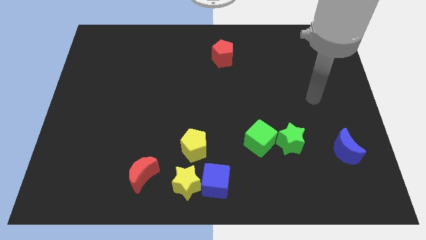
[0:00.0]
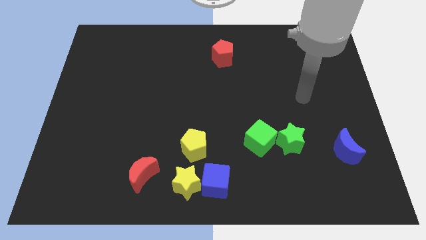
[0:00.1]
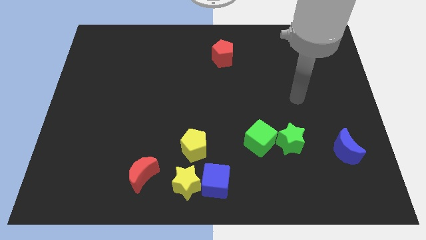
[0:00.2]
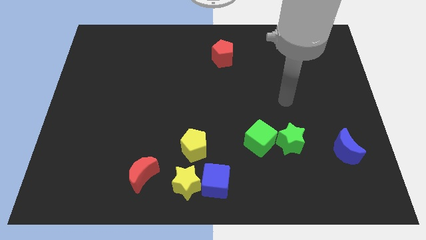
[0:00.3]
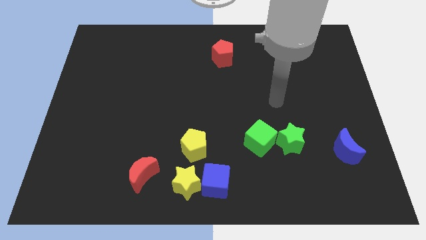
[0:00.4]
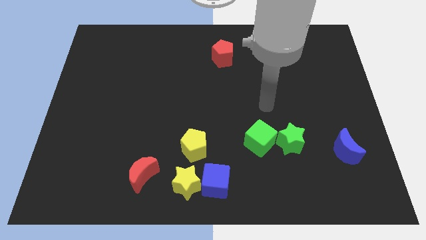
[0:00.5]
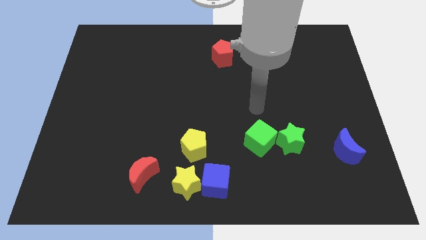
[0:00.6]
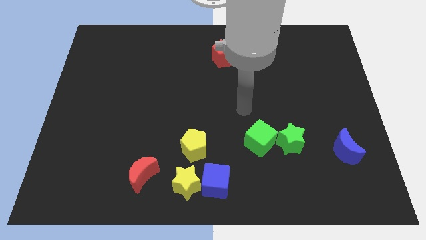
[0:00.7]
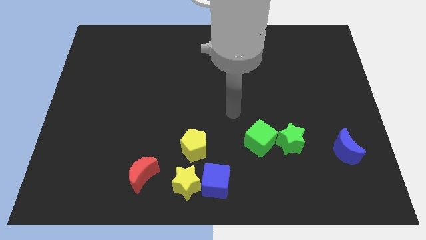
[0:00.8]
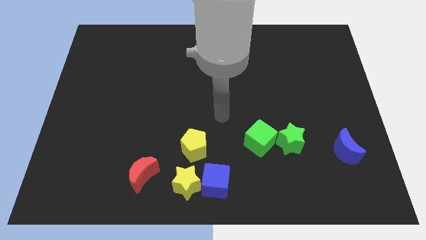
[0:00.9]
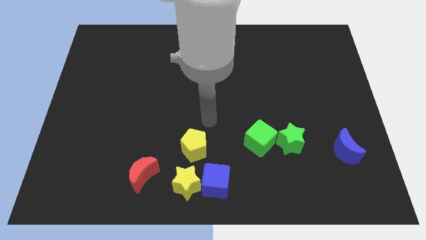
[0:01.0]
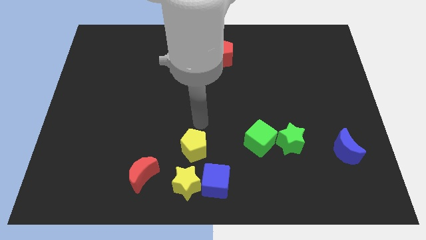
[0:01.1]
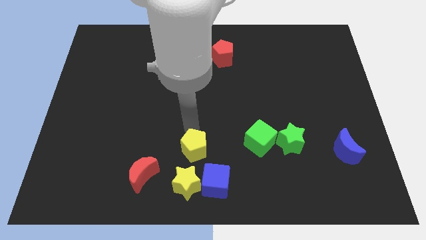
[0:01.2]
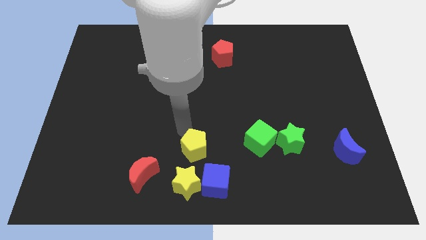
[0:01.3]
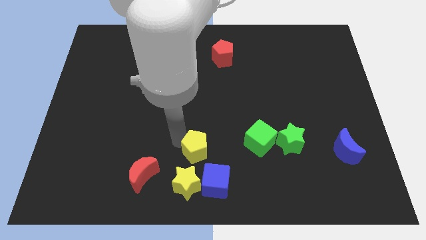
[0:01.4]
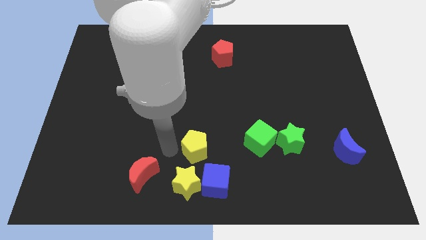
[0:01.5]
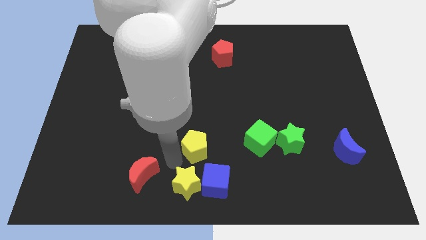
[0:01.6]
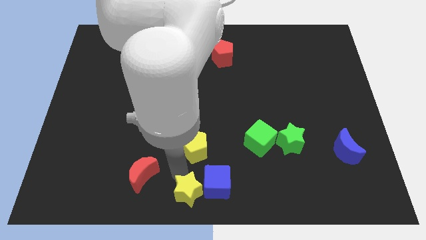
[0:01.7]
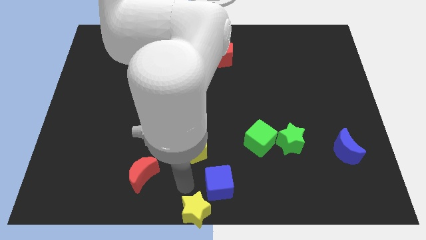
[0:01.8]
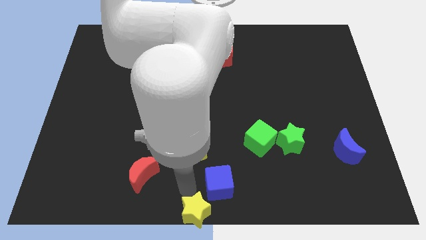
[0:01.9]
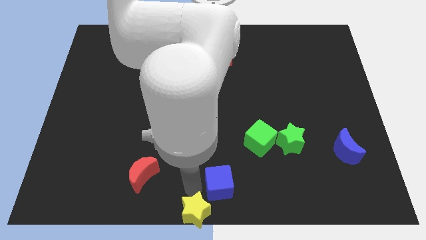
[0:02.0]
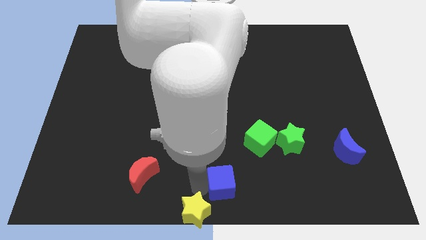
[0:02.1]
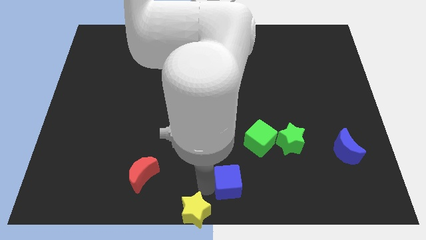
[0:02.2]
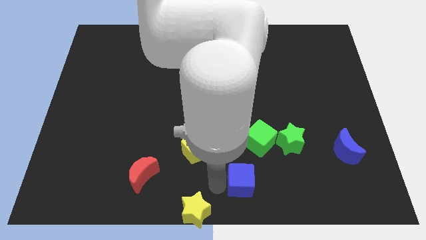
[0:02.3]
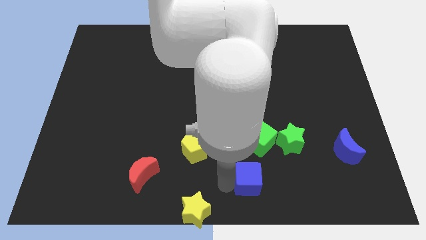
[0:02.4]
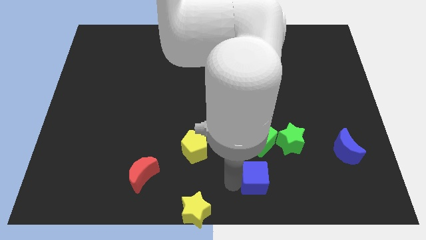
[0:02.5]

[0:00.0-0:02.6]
slide the blue cube somewhat right

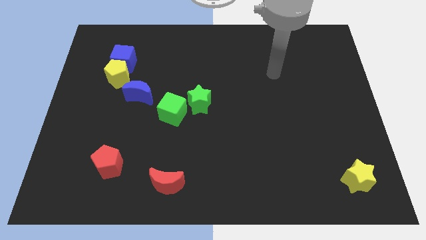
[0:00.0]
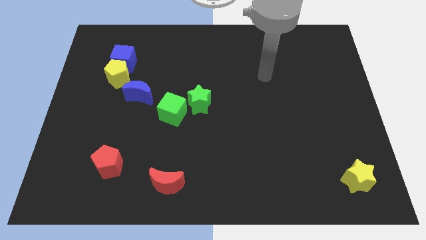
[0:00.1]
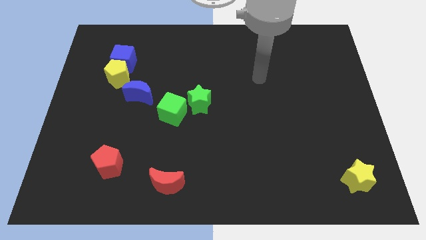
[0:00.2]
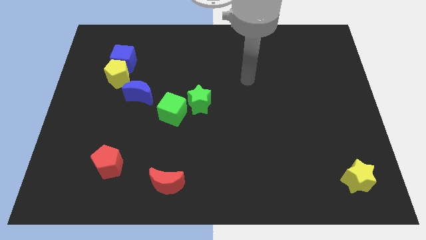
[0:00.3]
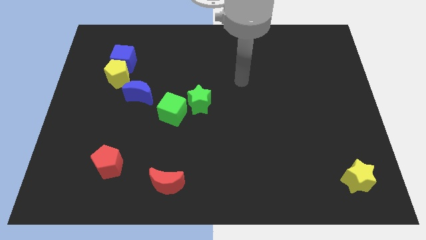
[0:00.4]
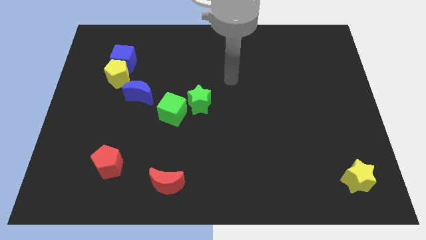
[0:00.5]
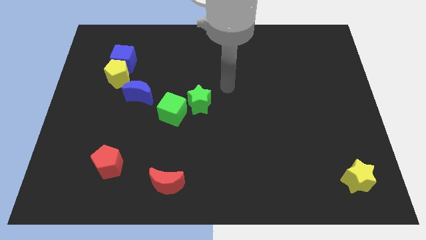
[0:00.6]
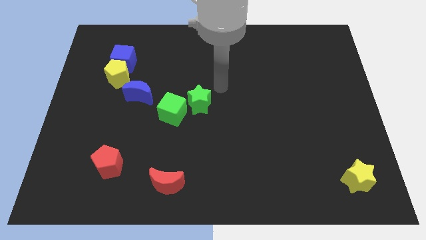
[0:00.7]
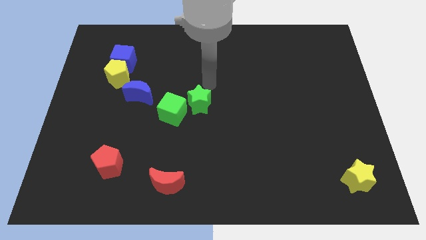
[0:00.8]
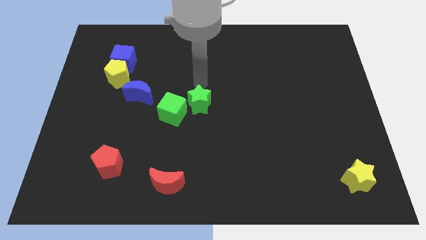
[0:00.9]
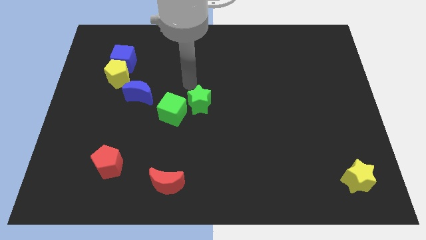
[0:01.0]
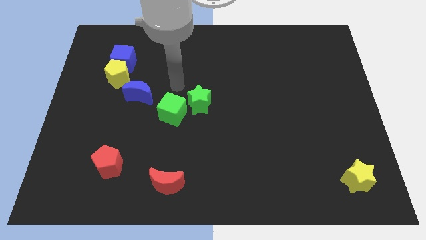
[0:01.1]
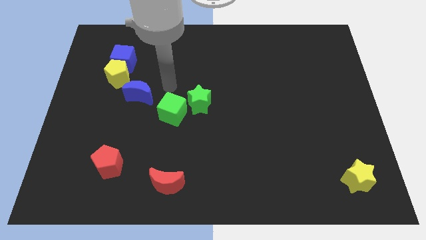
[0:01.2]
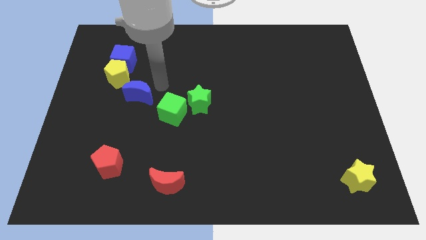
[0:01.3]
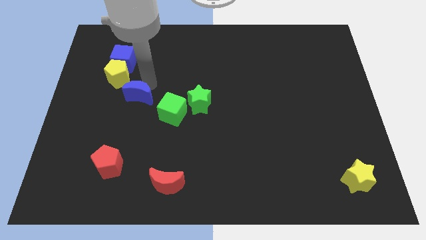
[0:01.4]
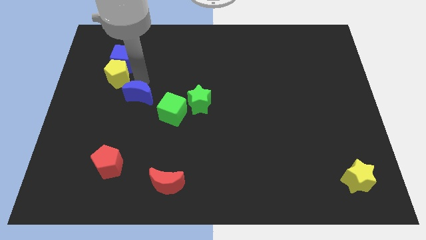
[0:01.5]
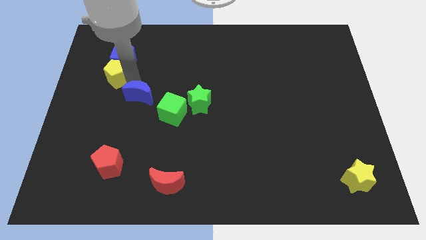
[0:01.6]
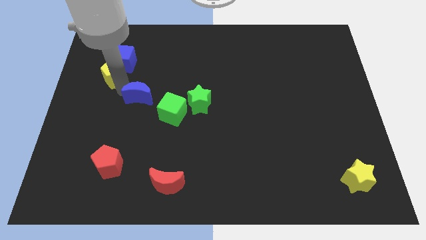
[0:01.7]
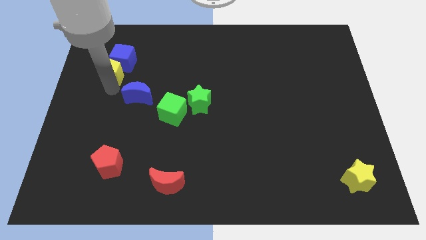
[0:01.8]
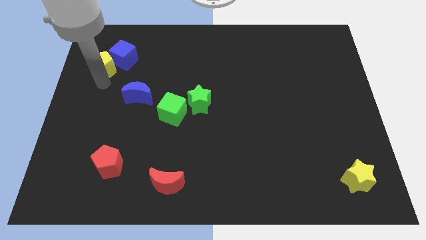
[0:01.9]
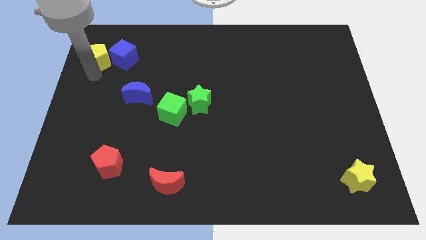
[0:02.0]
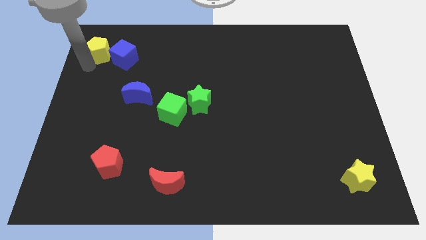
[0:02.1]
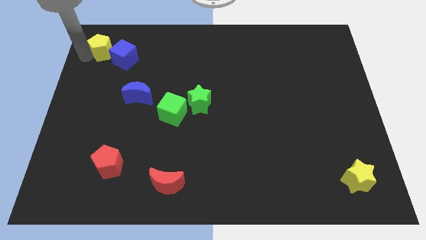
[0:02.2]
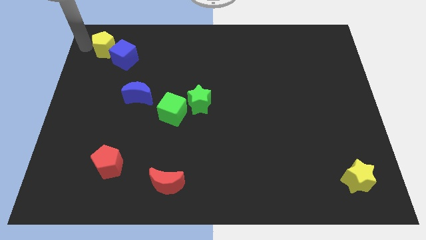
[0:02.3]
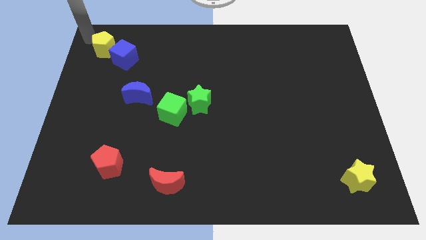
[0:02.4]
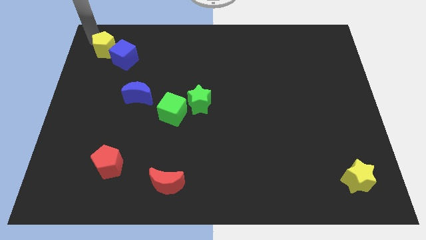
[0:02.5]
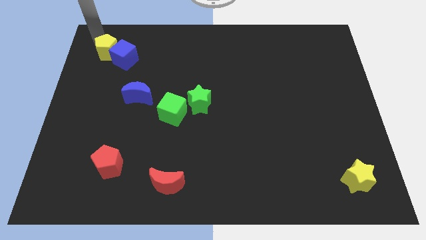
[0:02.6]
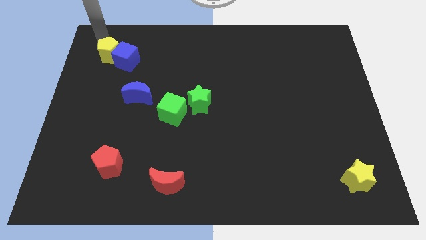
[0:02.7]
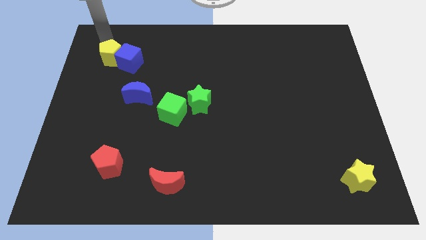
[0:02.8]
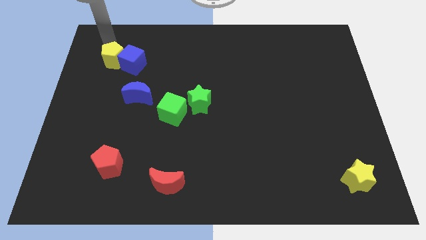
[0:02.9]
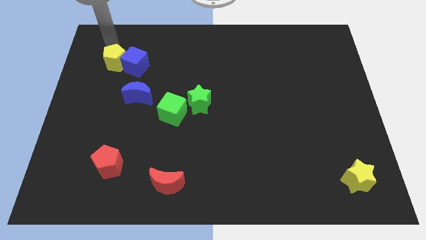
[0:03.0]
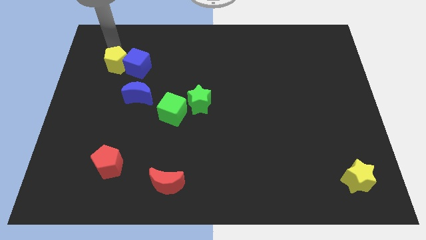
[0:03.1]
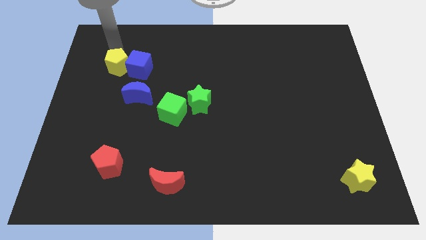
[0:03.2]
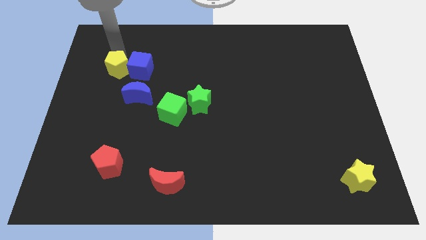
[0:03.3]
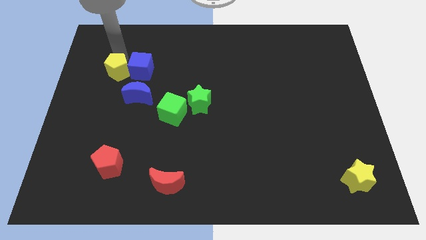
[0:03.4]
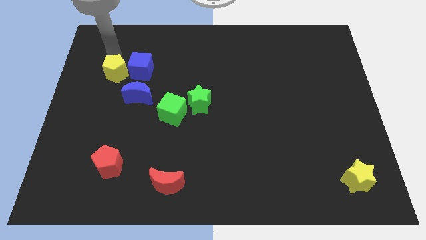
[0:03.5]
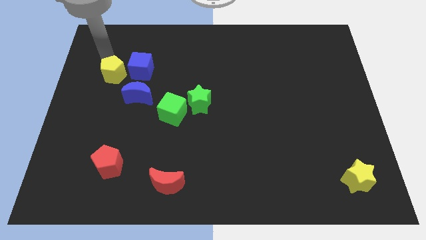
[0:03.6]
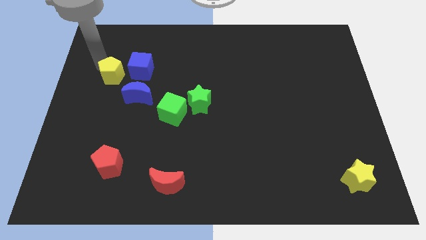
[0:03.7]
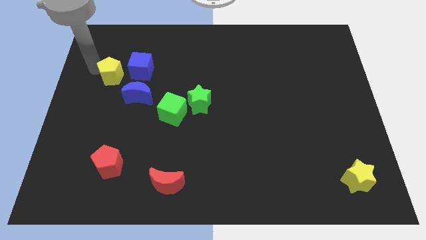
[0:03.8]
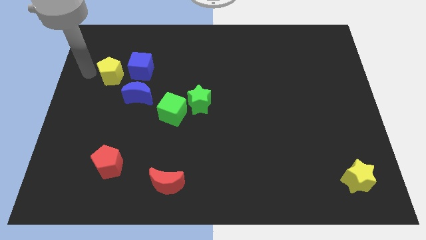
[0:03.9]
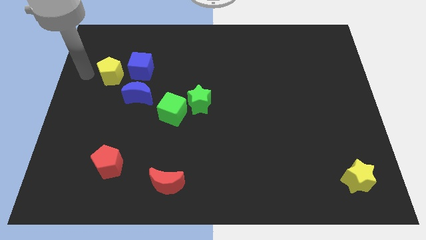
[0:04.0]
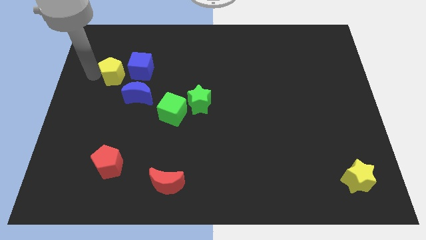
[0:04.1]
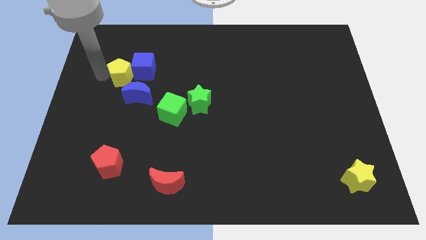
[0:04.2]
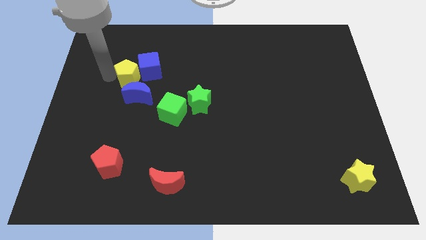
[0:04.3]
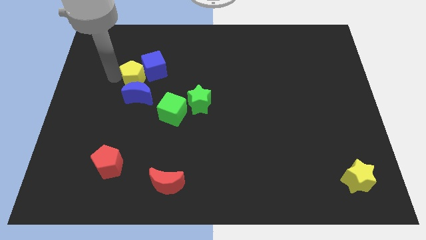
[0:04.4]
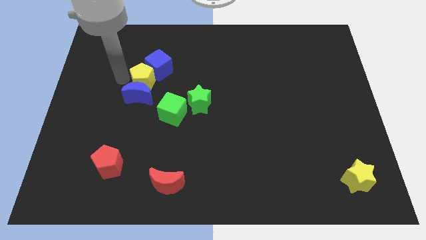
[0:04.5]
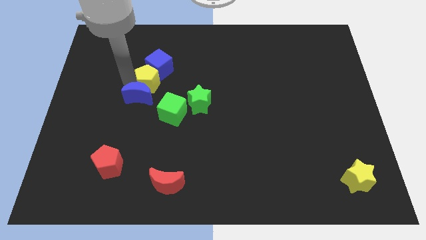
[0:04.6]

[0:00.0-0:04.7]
slightly push the yellow pentagon right

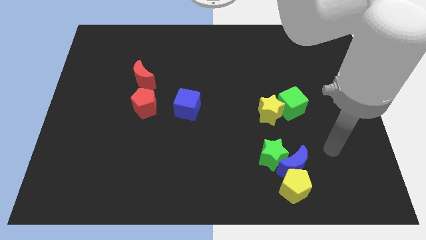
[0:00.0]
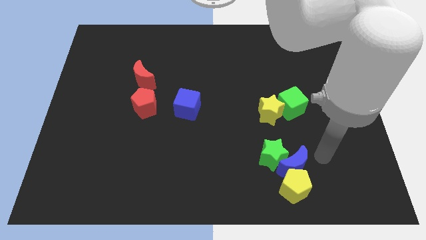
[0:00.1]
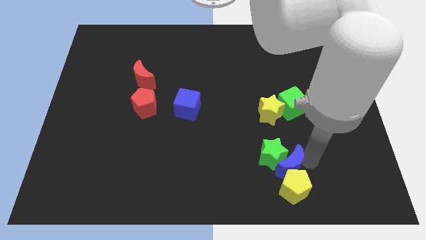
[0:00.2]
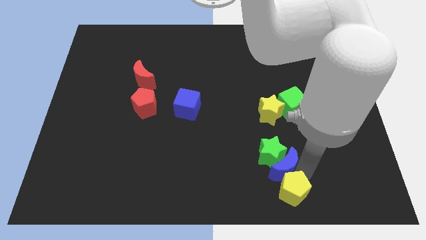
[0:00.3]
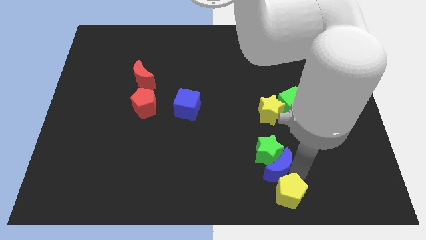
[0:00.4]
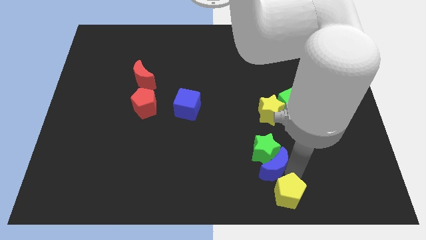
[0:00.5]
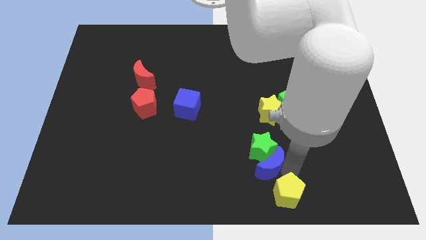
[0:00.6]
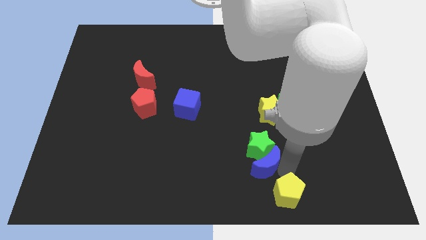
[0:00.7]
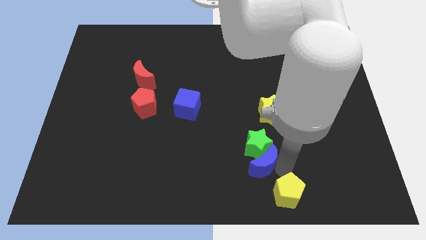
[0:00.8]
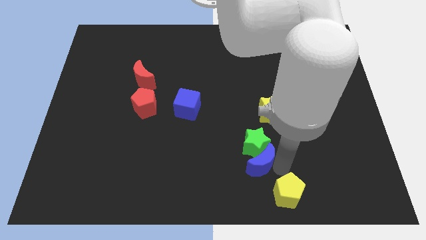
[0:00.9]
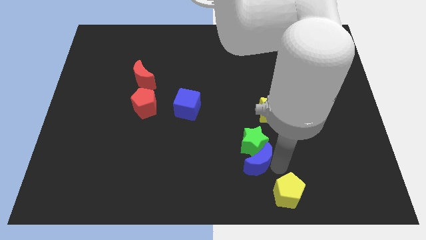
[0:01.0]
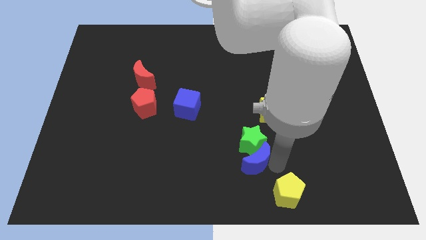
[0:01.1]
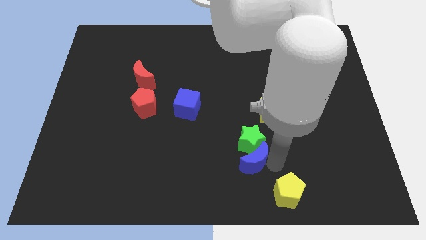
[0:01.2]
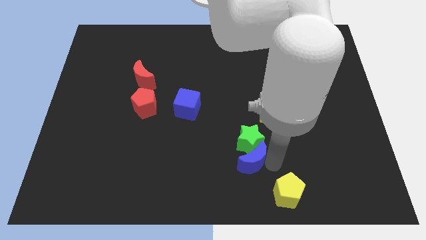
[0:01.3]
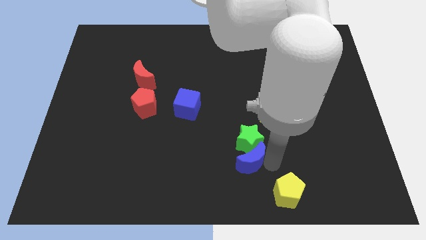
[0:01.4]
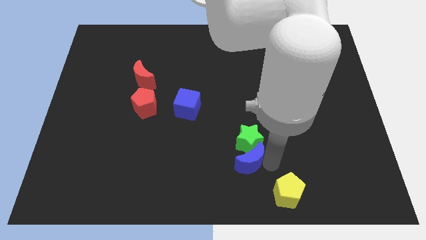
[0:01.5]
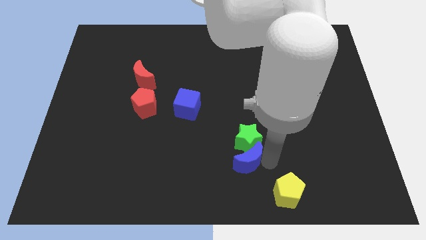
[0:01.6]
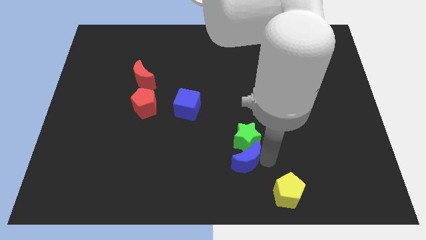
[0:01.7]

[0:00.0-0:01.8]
move the green star upwards and left diagonally a bit
